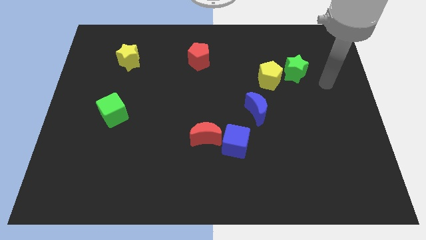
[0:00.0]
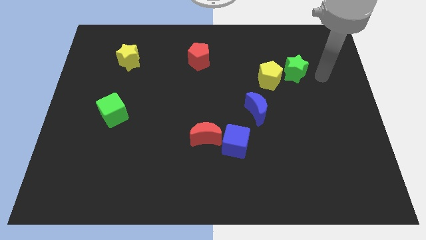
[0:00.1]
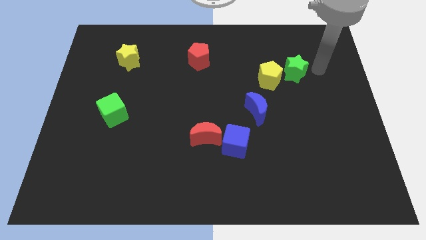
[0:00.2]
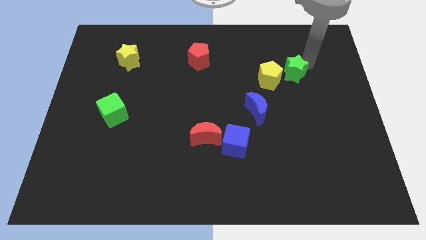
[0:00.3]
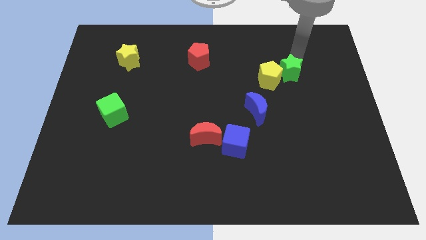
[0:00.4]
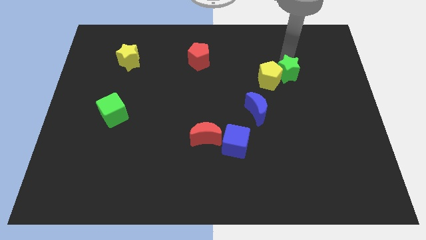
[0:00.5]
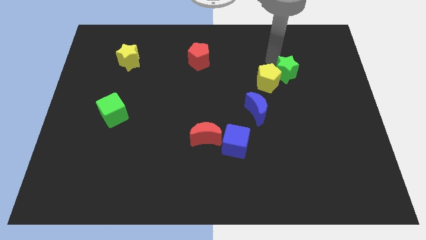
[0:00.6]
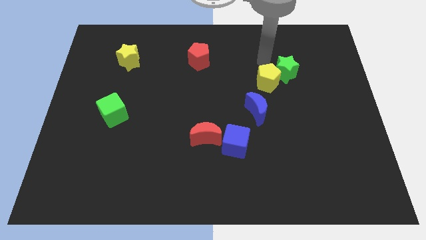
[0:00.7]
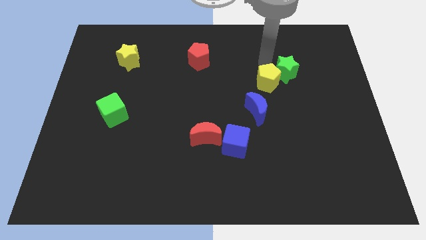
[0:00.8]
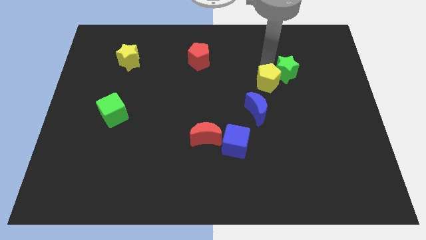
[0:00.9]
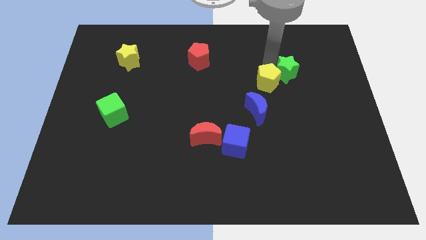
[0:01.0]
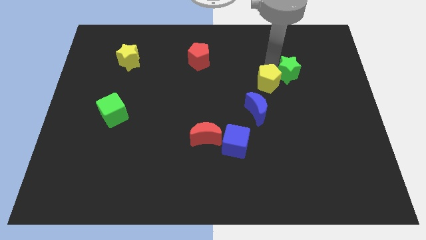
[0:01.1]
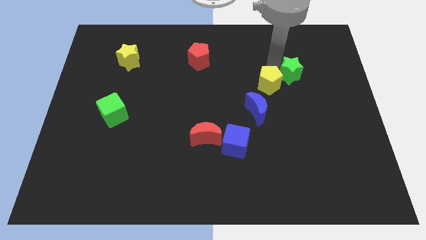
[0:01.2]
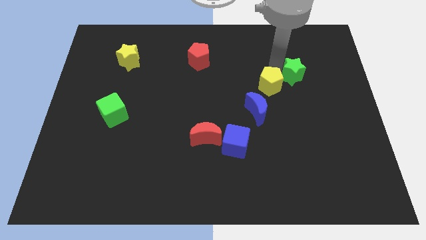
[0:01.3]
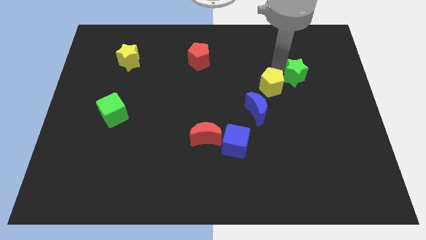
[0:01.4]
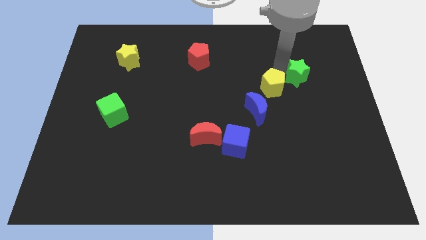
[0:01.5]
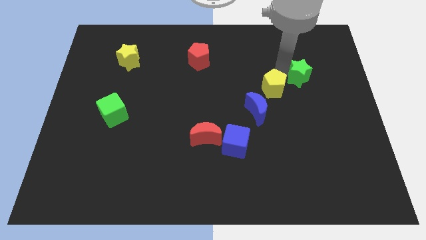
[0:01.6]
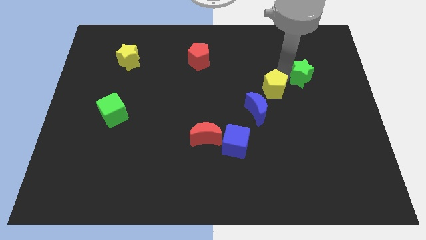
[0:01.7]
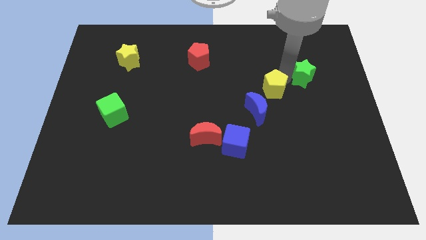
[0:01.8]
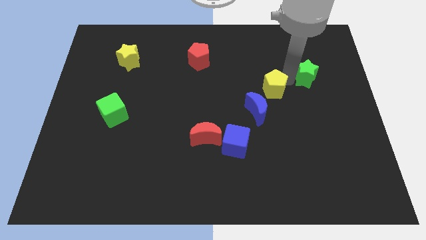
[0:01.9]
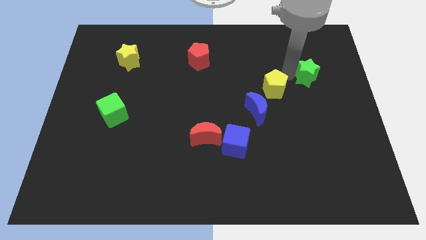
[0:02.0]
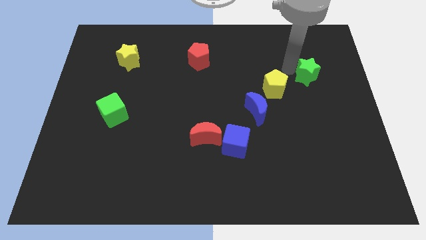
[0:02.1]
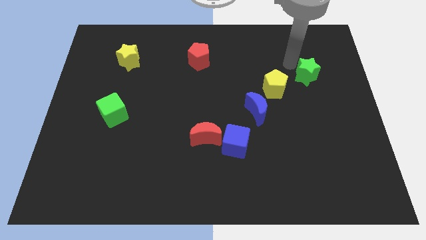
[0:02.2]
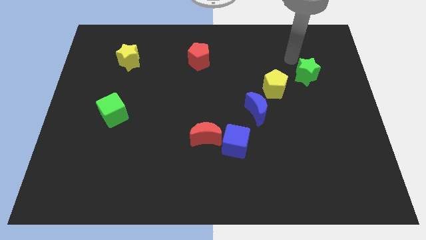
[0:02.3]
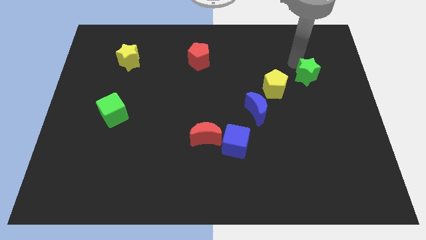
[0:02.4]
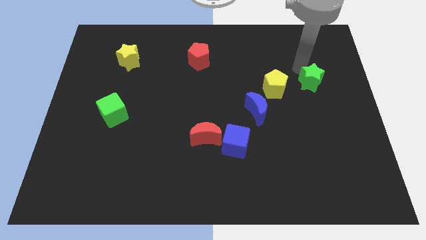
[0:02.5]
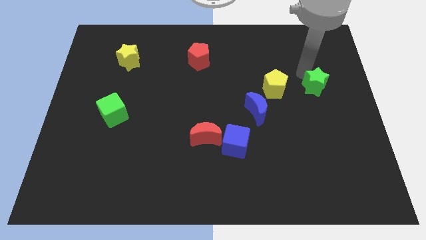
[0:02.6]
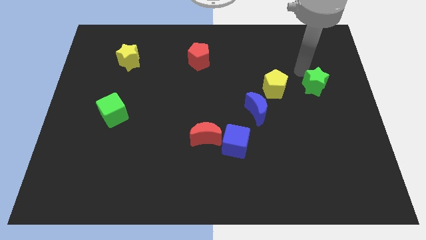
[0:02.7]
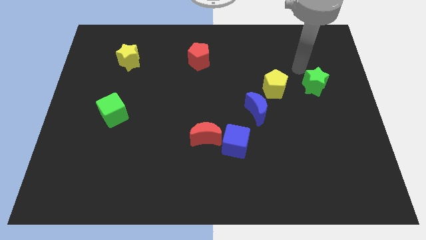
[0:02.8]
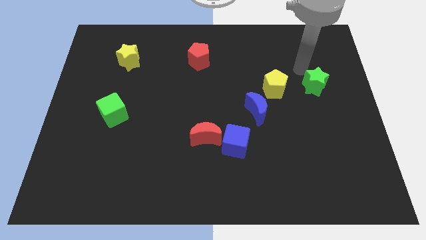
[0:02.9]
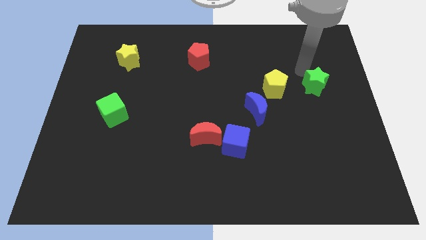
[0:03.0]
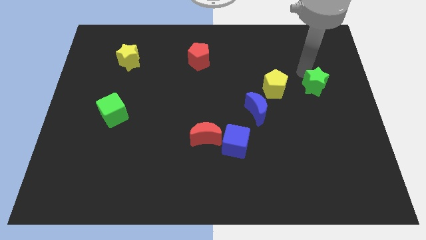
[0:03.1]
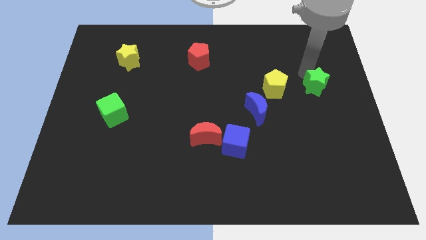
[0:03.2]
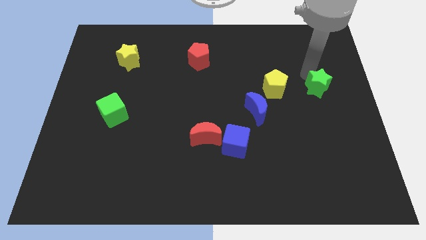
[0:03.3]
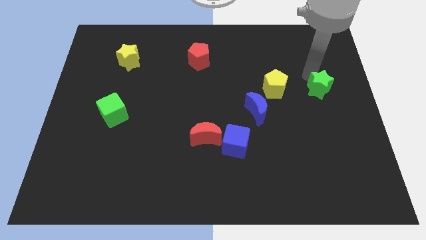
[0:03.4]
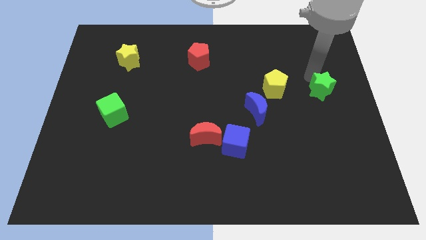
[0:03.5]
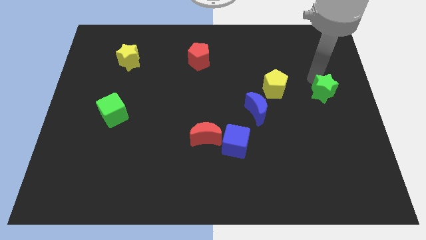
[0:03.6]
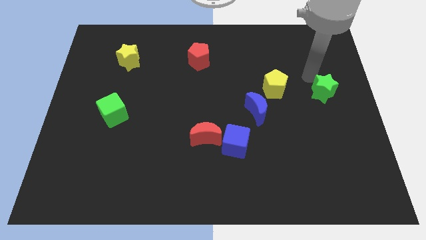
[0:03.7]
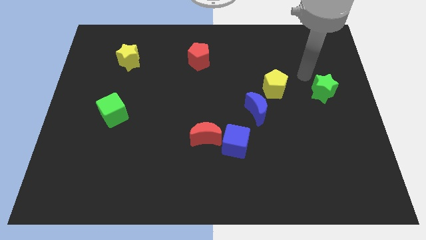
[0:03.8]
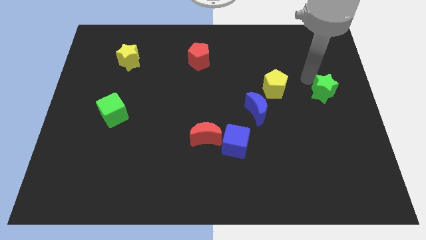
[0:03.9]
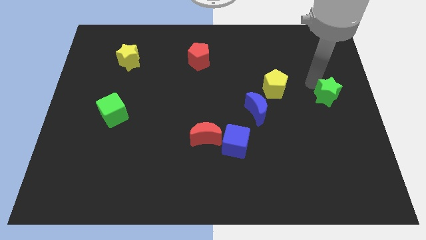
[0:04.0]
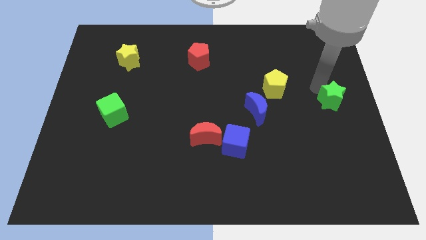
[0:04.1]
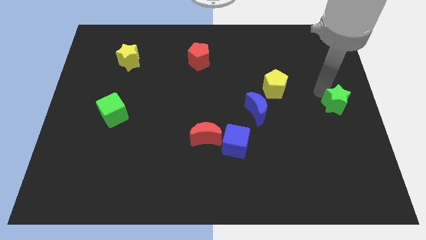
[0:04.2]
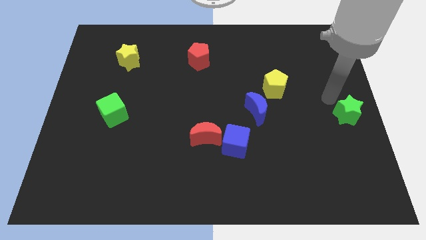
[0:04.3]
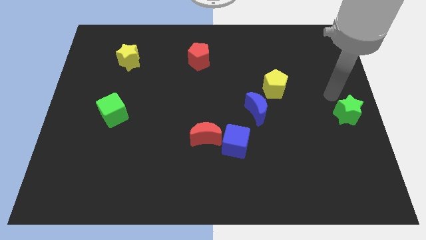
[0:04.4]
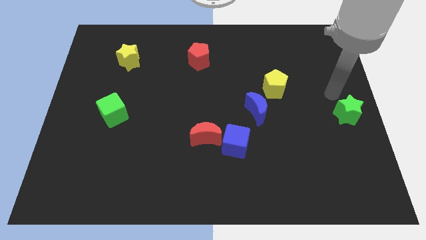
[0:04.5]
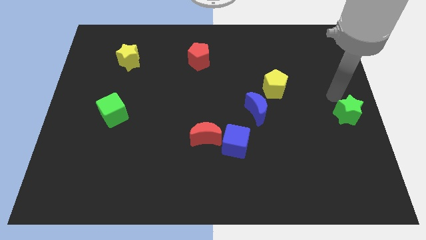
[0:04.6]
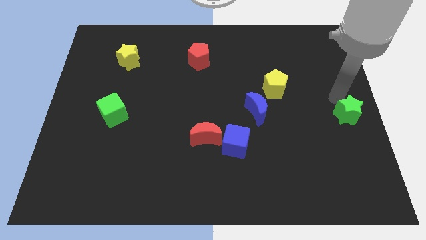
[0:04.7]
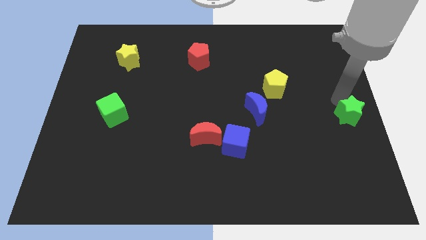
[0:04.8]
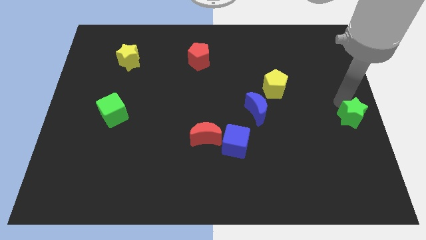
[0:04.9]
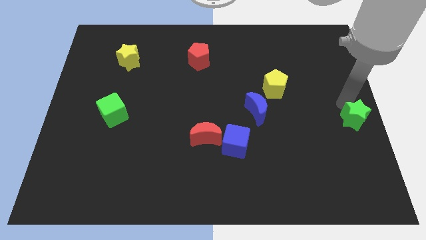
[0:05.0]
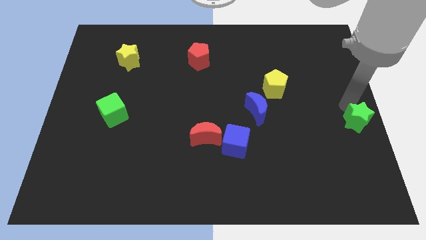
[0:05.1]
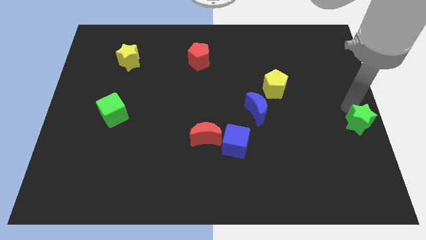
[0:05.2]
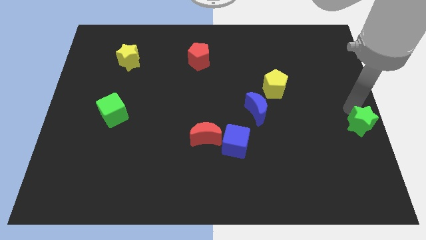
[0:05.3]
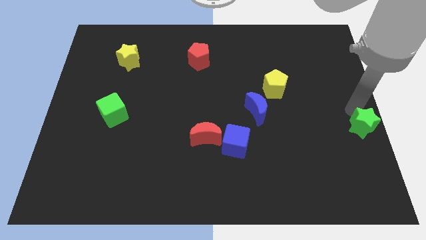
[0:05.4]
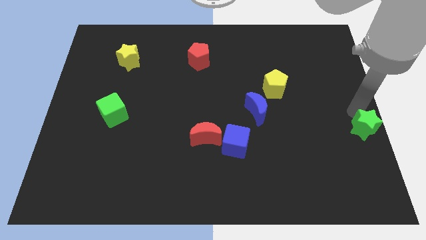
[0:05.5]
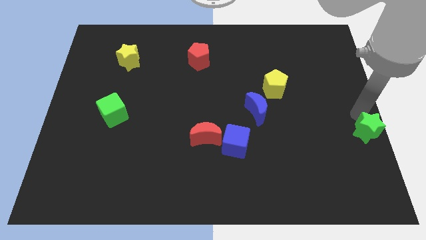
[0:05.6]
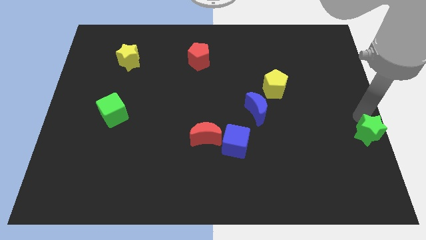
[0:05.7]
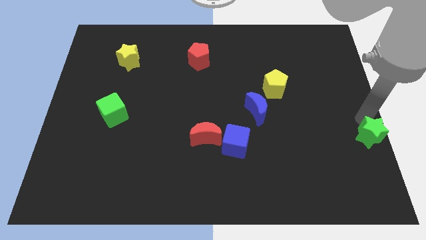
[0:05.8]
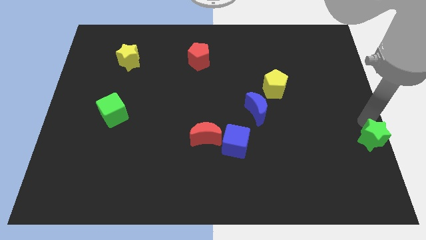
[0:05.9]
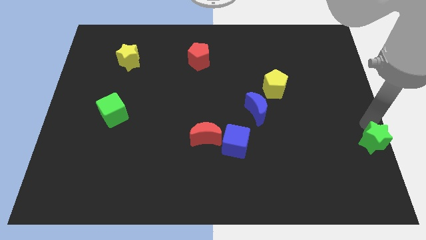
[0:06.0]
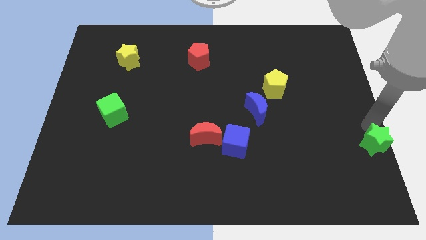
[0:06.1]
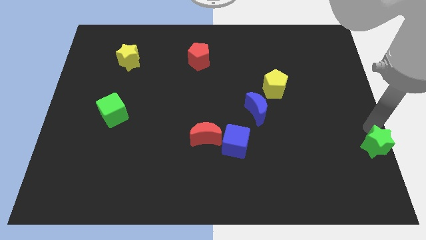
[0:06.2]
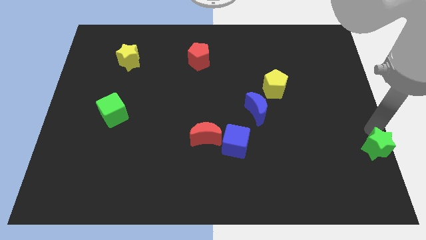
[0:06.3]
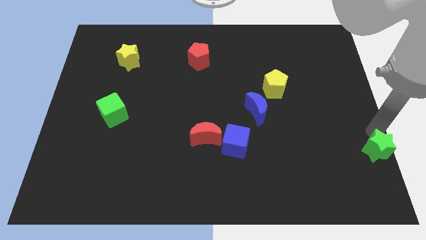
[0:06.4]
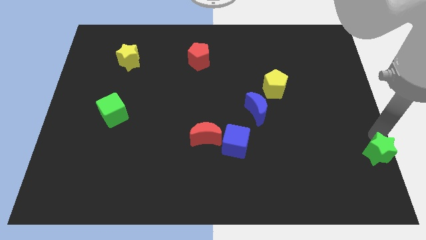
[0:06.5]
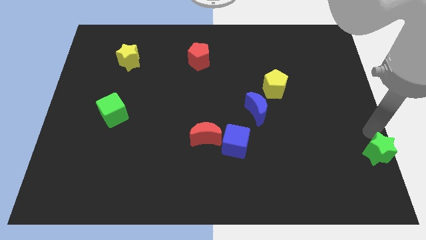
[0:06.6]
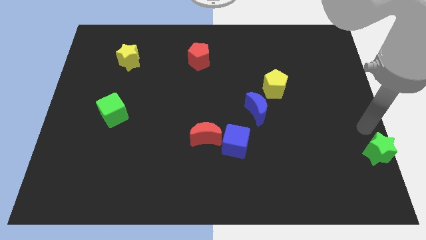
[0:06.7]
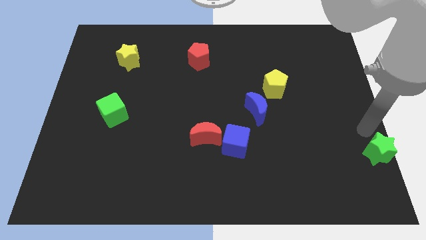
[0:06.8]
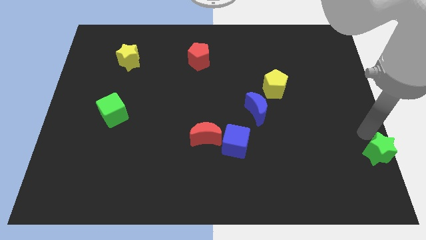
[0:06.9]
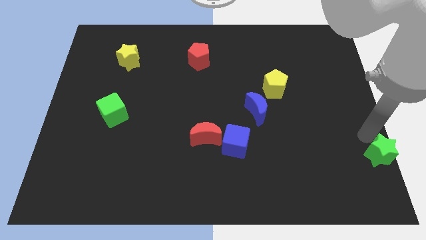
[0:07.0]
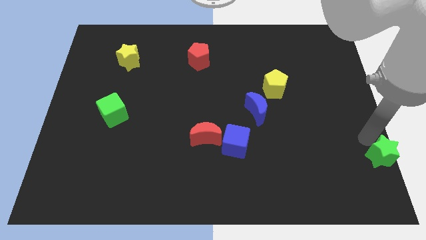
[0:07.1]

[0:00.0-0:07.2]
put the green star to the lower right corner

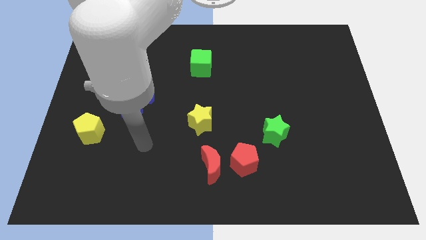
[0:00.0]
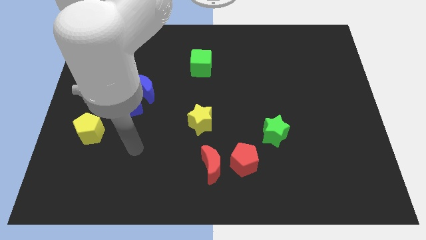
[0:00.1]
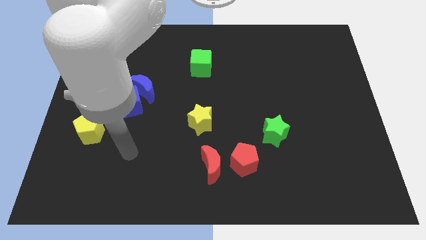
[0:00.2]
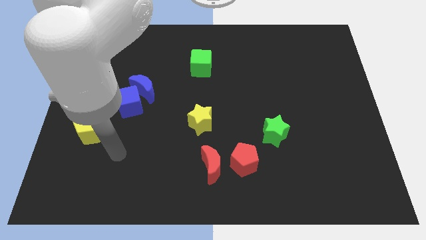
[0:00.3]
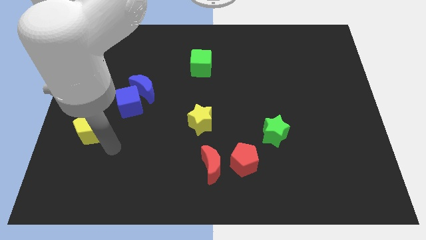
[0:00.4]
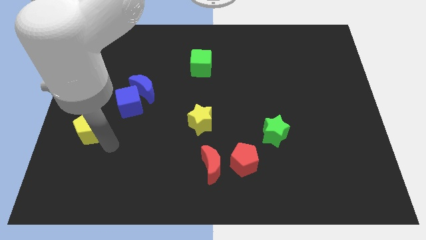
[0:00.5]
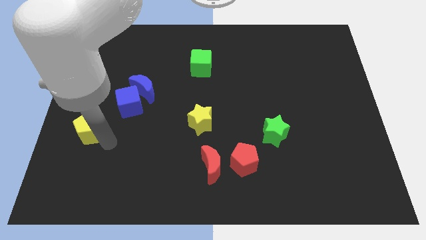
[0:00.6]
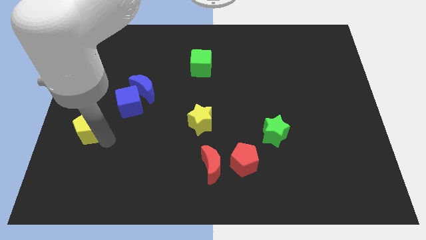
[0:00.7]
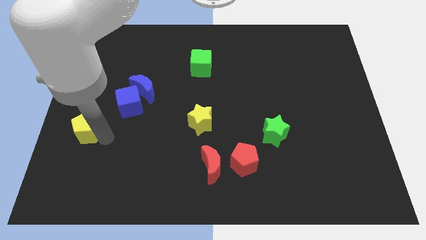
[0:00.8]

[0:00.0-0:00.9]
move the yellow pentagon to the center left
